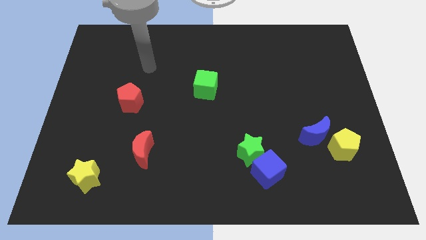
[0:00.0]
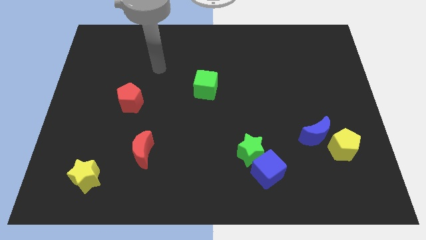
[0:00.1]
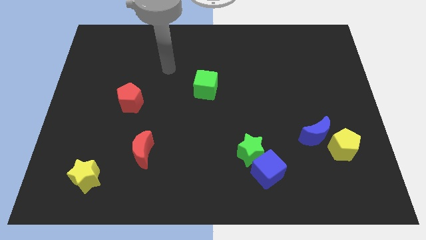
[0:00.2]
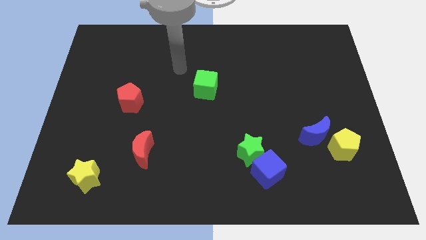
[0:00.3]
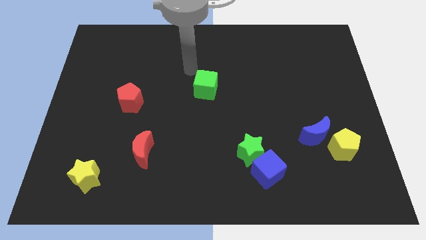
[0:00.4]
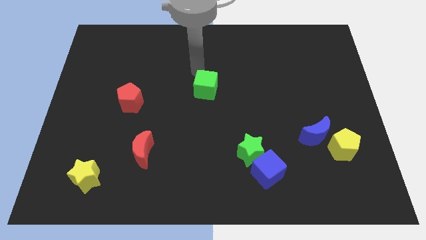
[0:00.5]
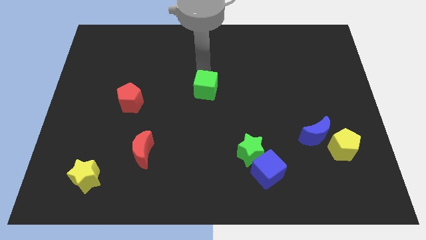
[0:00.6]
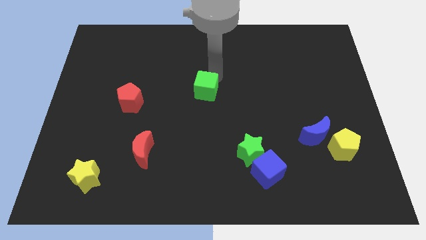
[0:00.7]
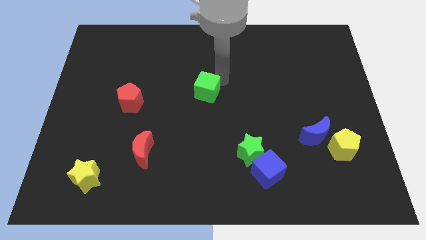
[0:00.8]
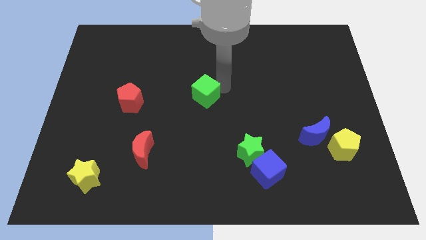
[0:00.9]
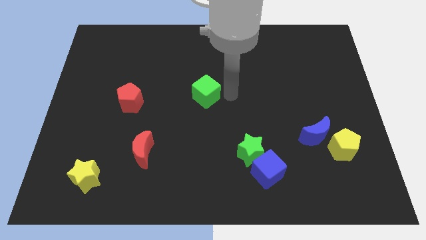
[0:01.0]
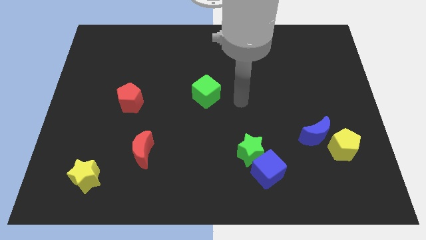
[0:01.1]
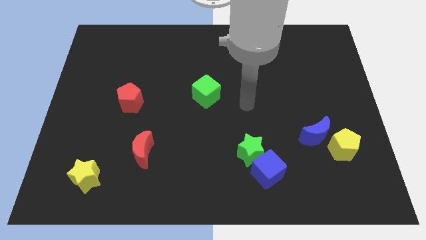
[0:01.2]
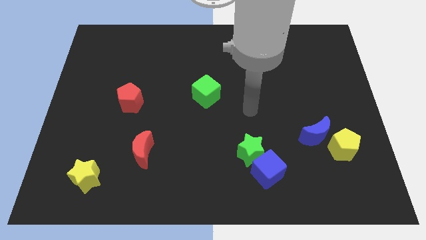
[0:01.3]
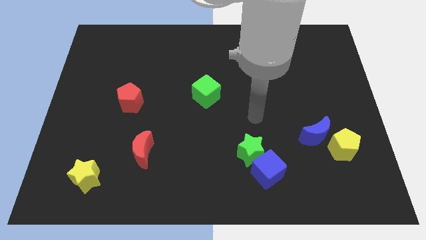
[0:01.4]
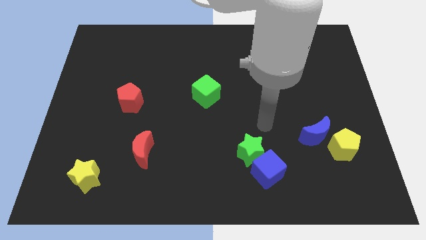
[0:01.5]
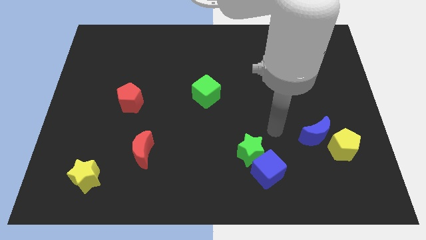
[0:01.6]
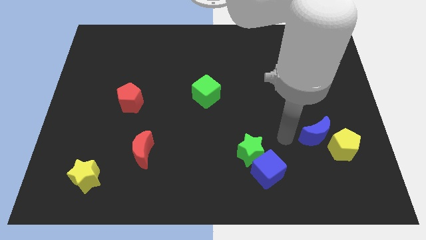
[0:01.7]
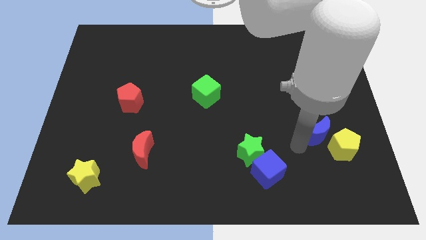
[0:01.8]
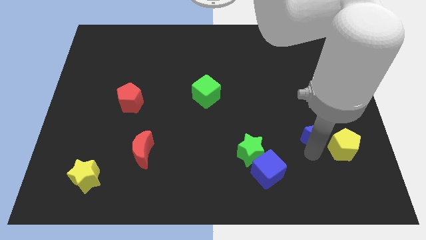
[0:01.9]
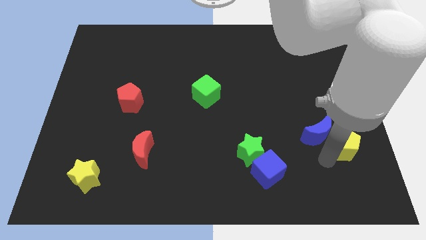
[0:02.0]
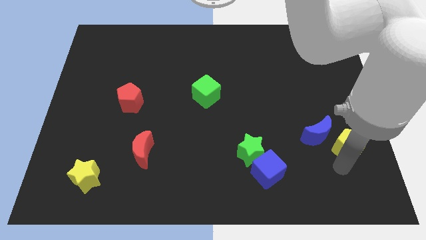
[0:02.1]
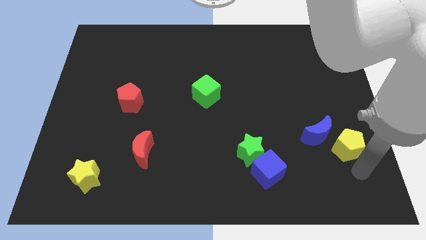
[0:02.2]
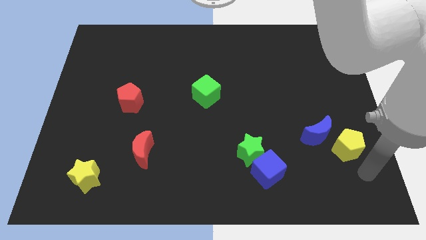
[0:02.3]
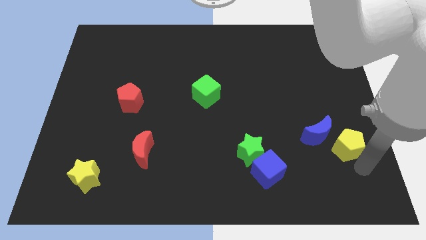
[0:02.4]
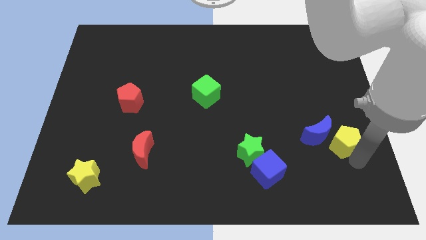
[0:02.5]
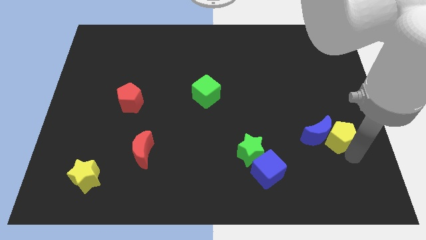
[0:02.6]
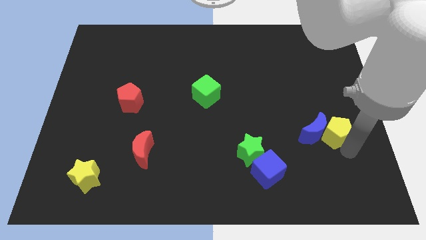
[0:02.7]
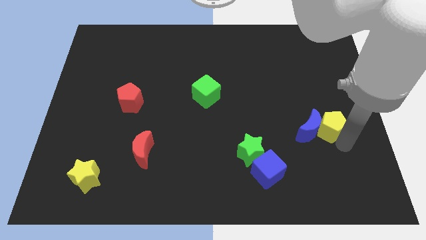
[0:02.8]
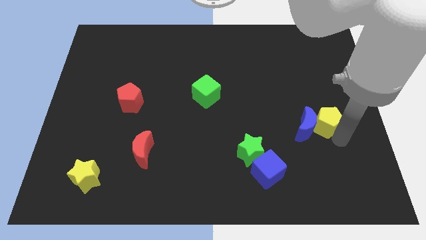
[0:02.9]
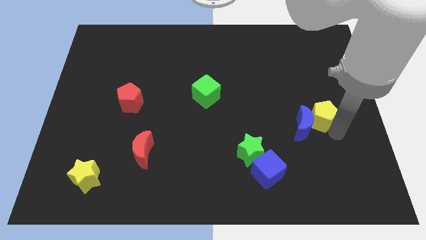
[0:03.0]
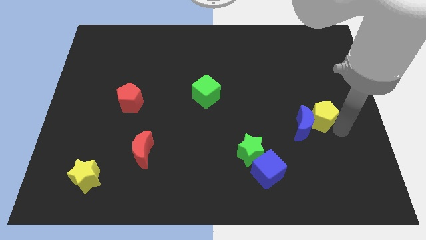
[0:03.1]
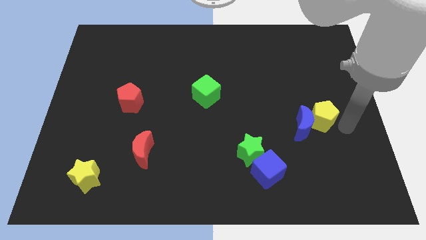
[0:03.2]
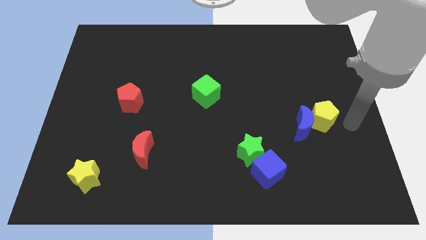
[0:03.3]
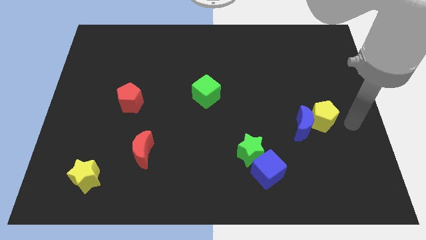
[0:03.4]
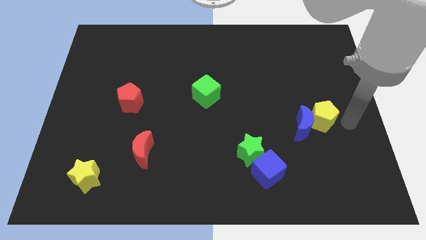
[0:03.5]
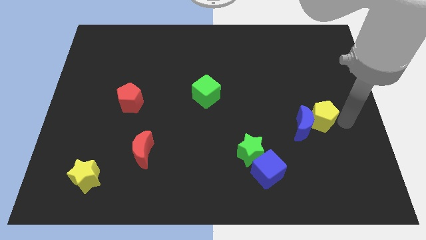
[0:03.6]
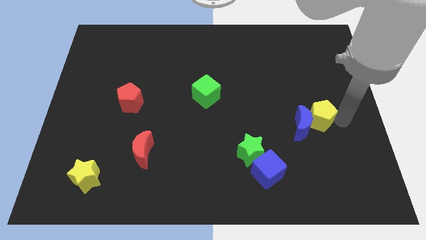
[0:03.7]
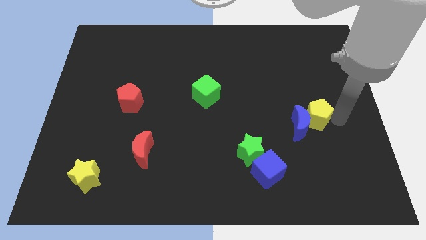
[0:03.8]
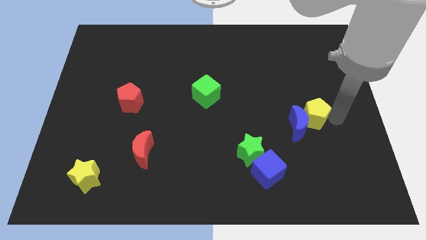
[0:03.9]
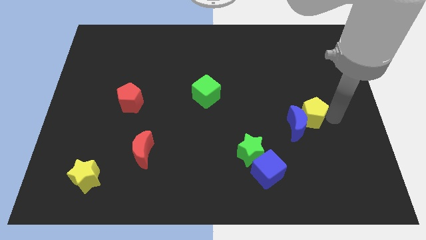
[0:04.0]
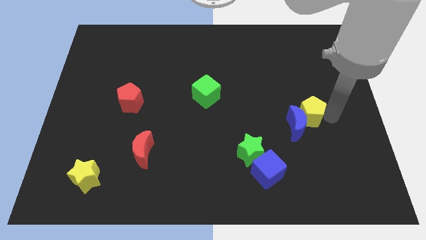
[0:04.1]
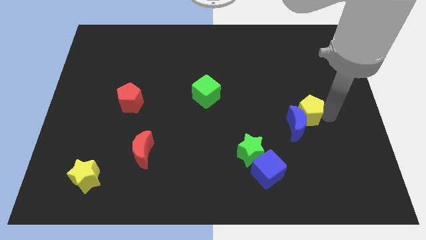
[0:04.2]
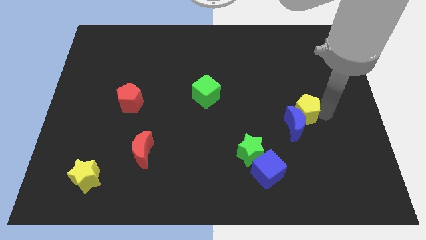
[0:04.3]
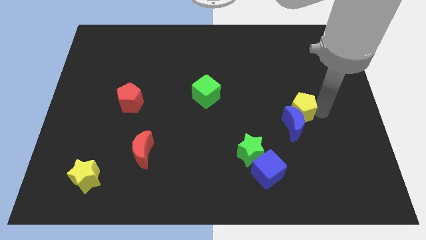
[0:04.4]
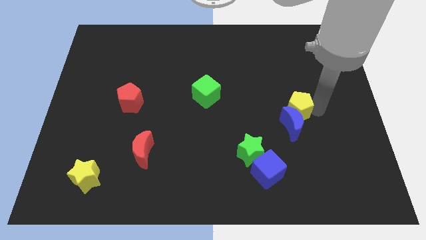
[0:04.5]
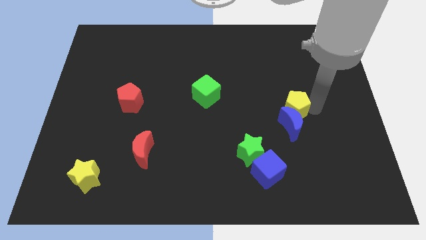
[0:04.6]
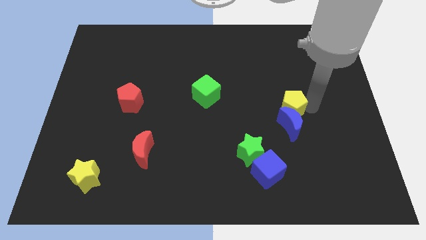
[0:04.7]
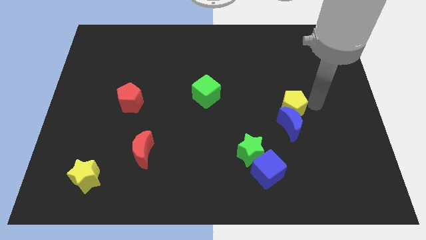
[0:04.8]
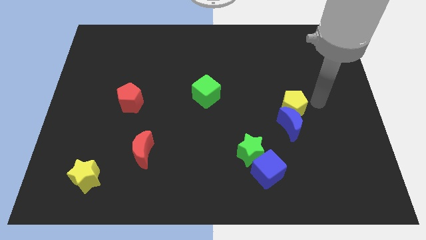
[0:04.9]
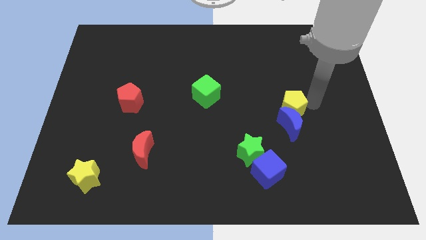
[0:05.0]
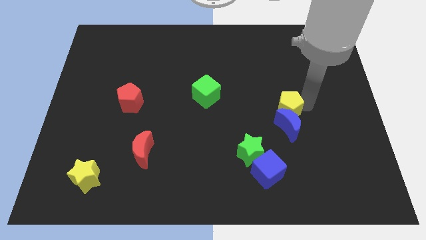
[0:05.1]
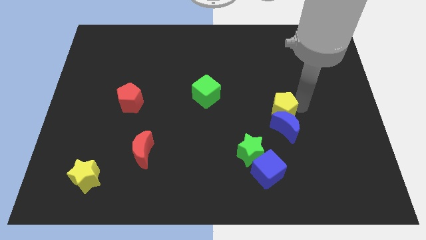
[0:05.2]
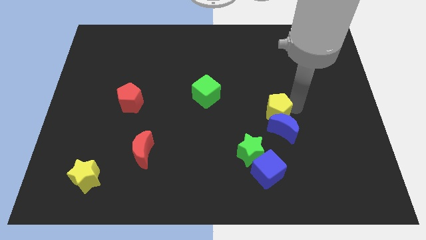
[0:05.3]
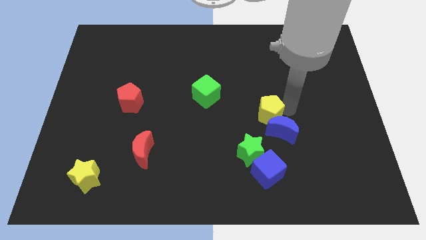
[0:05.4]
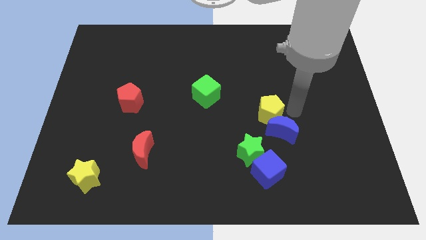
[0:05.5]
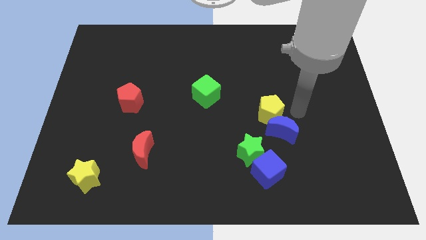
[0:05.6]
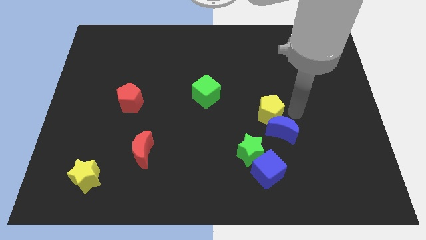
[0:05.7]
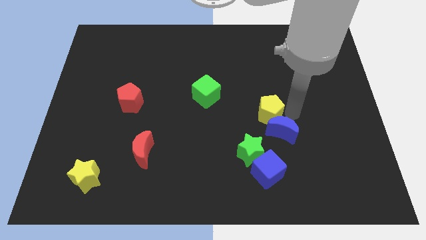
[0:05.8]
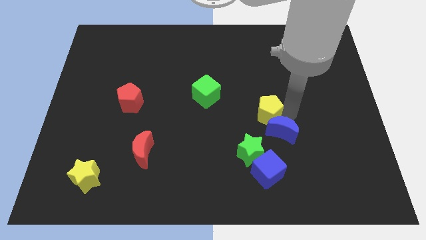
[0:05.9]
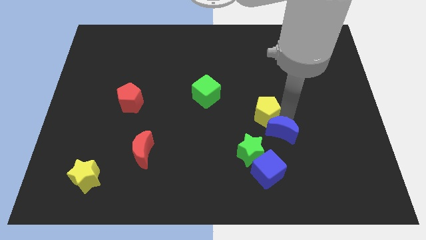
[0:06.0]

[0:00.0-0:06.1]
slide the yellow pentagon to the top side of the green star

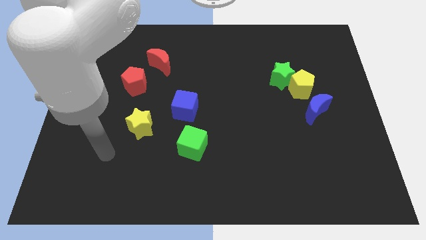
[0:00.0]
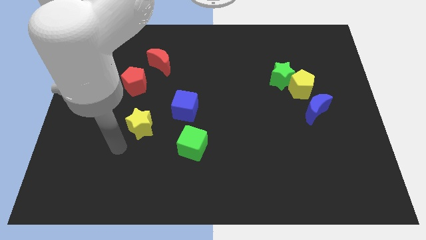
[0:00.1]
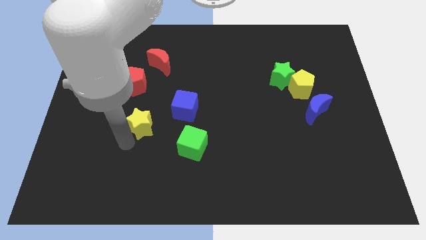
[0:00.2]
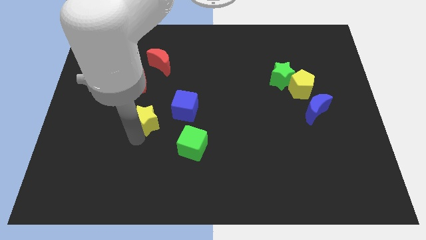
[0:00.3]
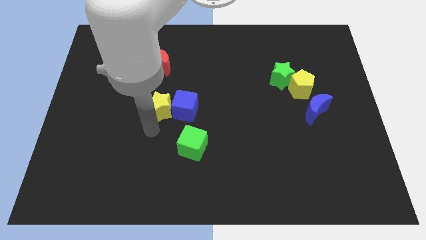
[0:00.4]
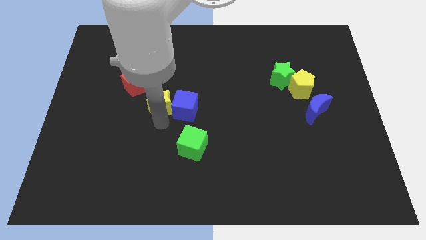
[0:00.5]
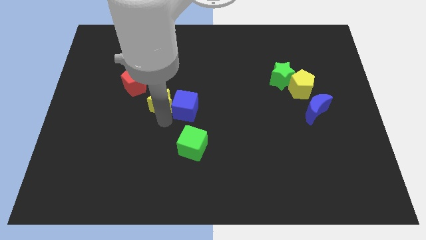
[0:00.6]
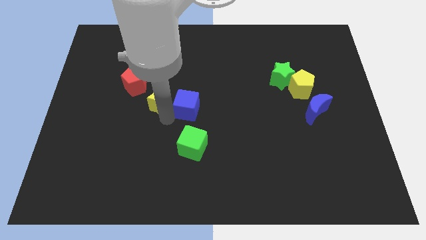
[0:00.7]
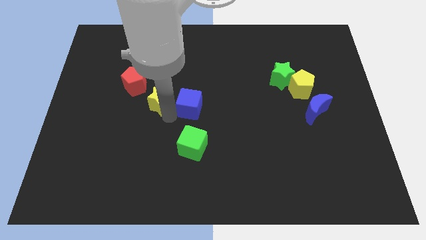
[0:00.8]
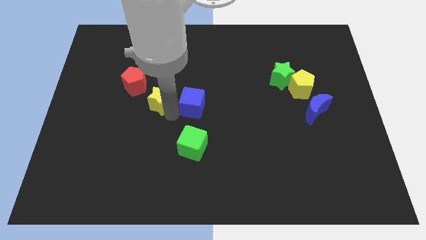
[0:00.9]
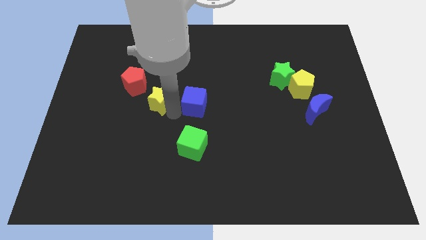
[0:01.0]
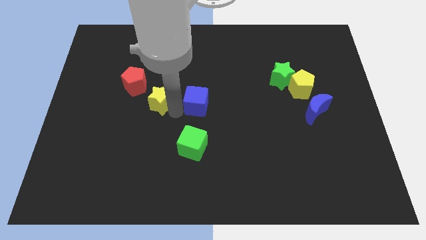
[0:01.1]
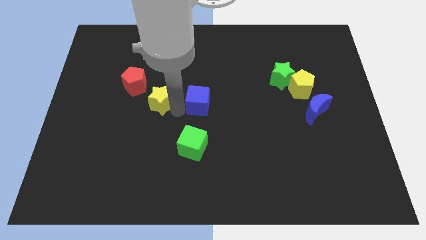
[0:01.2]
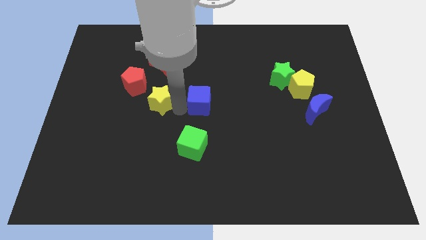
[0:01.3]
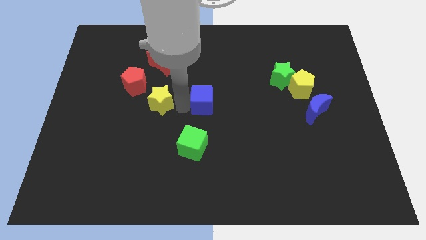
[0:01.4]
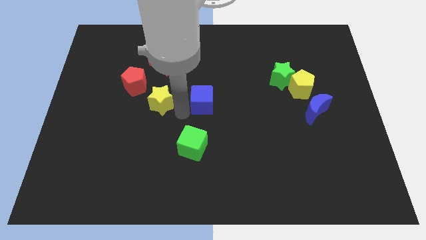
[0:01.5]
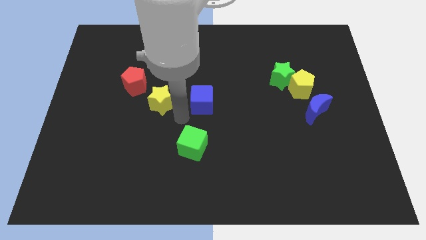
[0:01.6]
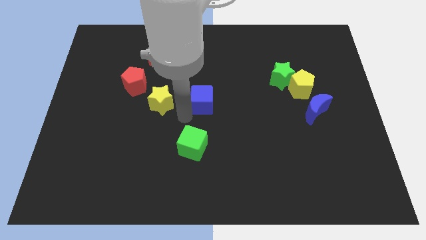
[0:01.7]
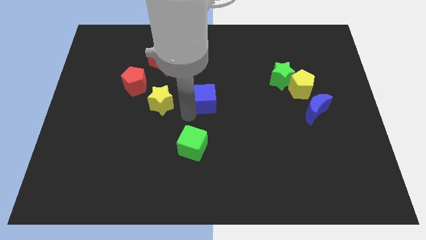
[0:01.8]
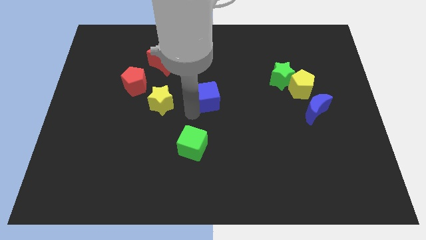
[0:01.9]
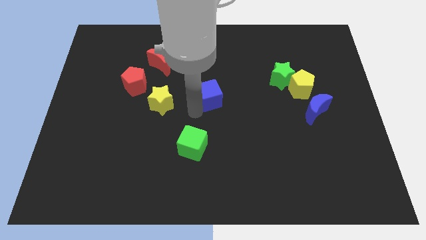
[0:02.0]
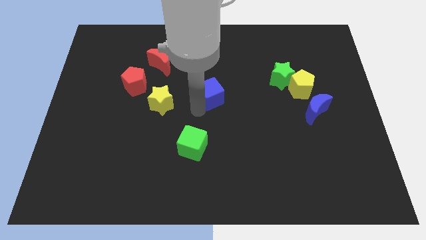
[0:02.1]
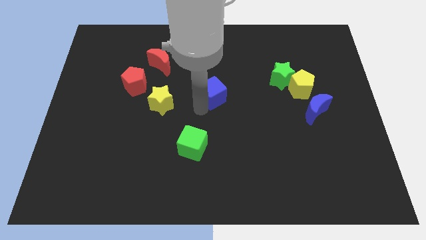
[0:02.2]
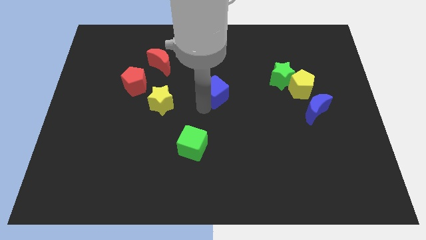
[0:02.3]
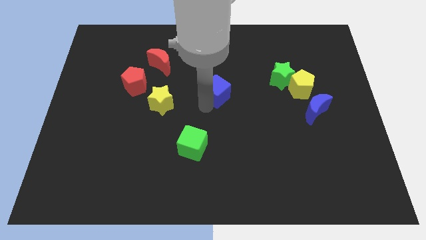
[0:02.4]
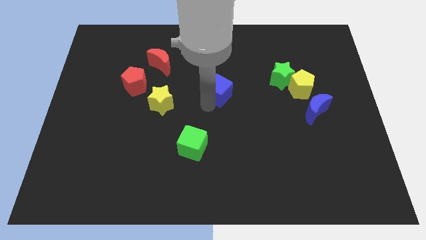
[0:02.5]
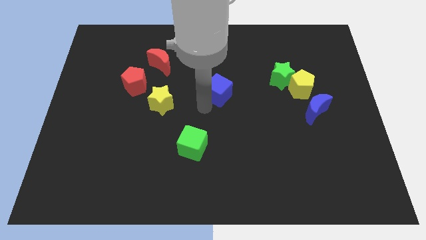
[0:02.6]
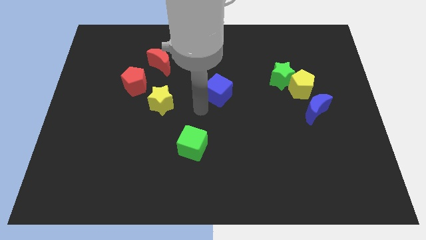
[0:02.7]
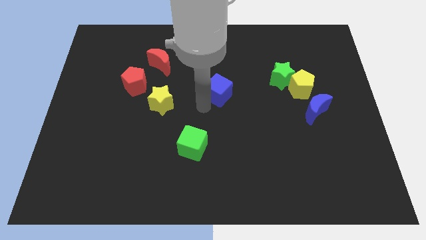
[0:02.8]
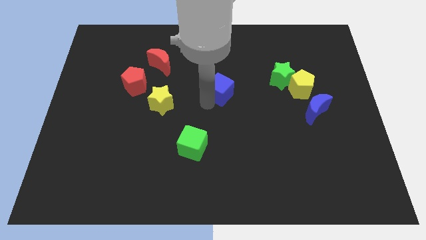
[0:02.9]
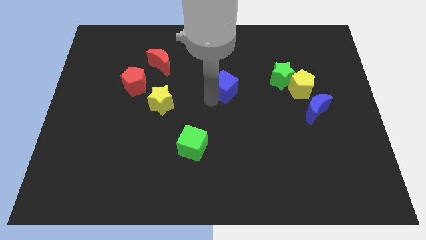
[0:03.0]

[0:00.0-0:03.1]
put the blue cube left of the green star
